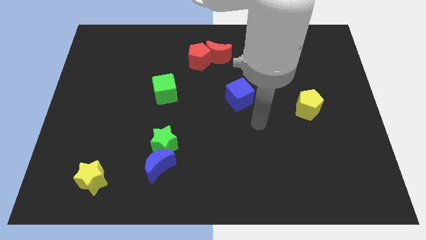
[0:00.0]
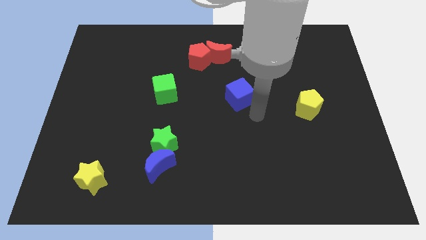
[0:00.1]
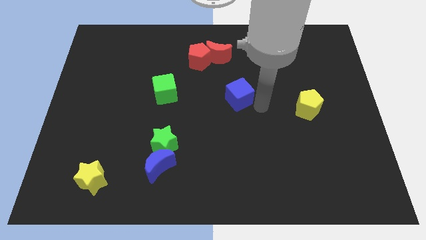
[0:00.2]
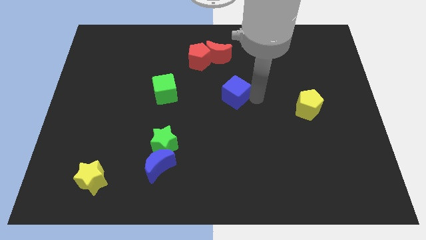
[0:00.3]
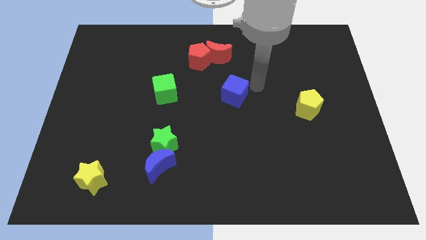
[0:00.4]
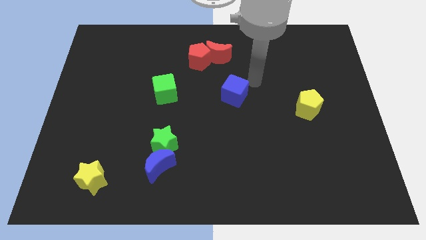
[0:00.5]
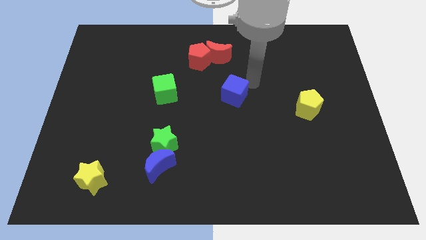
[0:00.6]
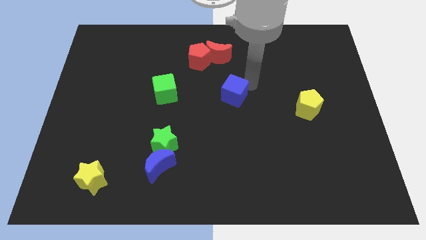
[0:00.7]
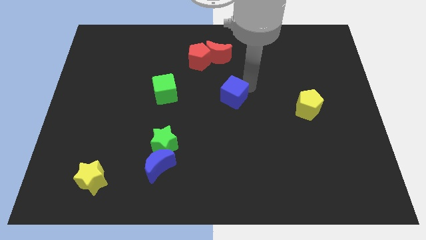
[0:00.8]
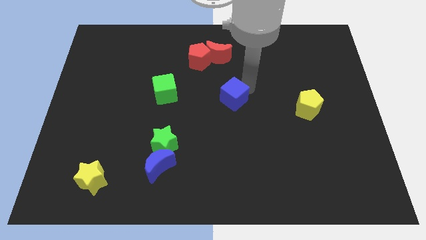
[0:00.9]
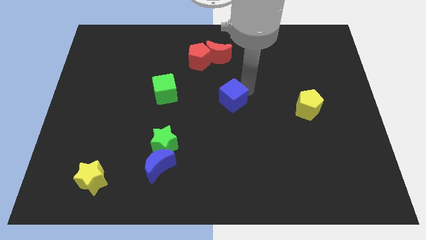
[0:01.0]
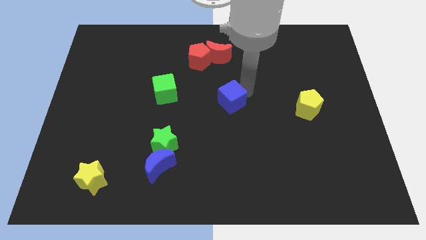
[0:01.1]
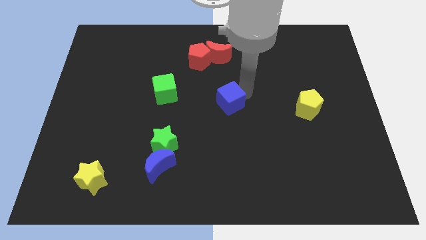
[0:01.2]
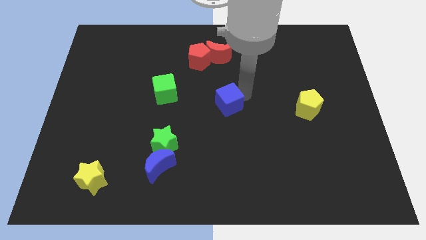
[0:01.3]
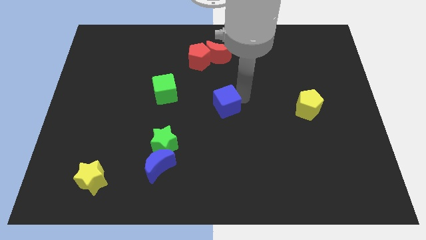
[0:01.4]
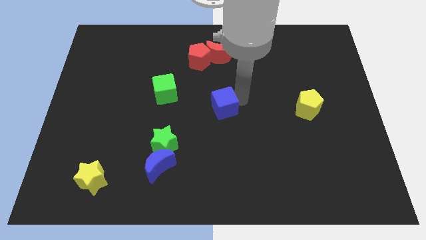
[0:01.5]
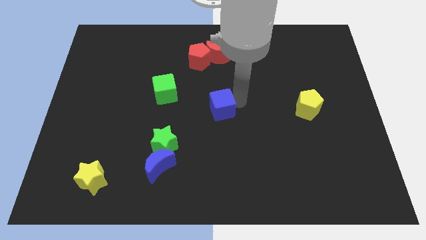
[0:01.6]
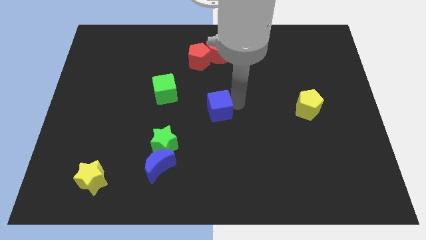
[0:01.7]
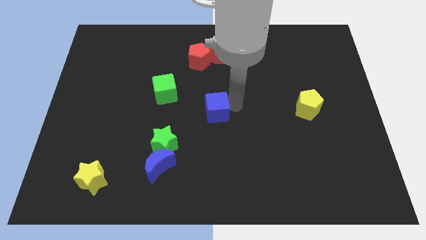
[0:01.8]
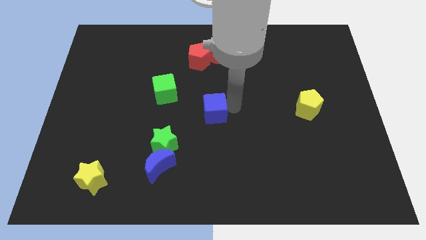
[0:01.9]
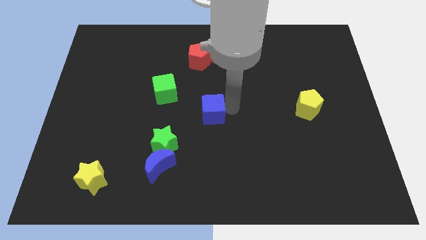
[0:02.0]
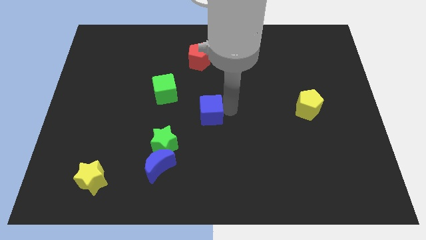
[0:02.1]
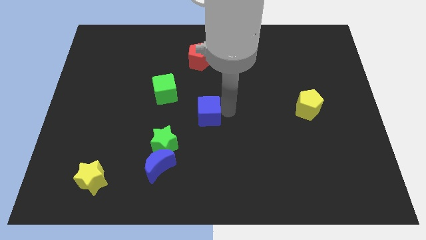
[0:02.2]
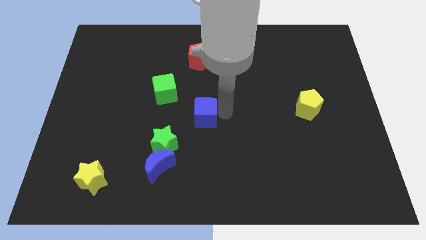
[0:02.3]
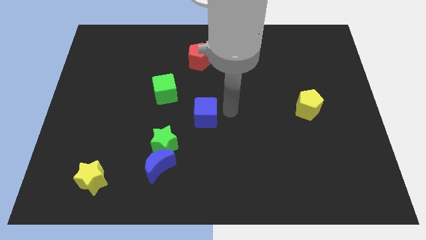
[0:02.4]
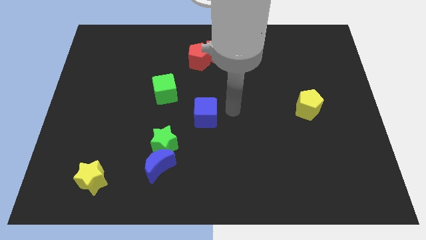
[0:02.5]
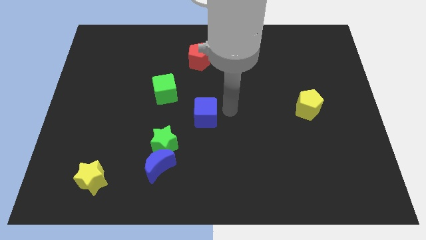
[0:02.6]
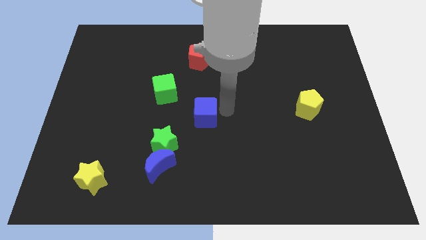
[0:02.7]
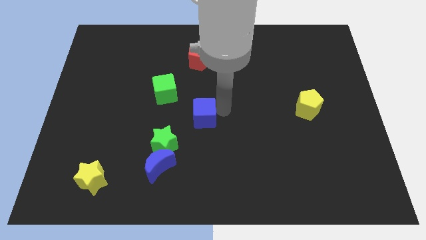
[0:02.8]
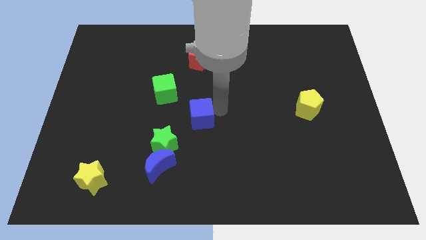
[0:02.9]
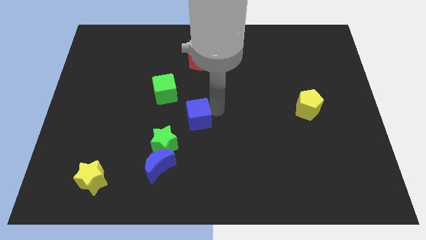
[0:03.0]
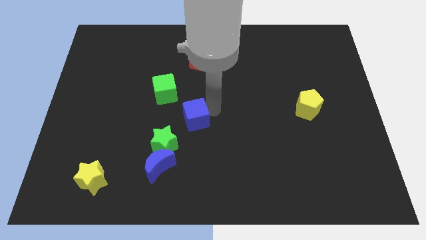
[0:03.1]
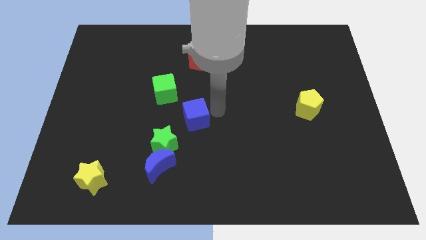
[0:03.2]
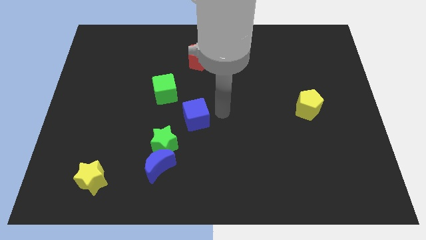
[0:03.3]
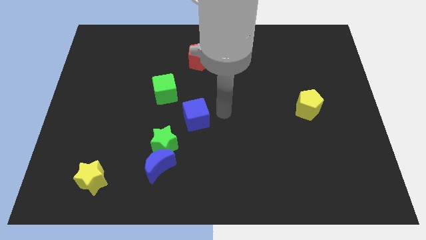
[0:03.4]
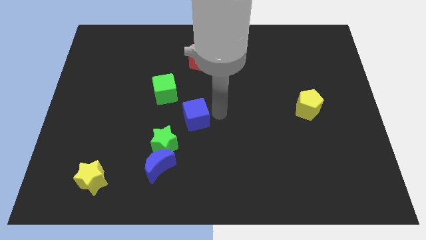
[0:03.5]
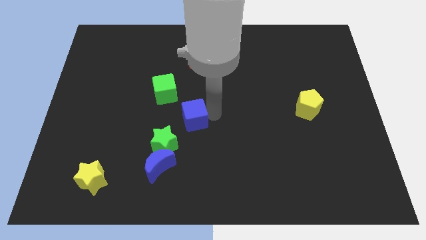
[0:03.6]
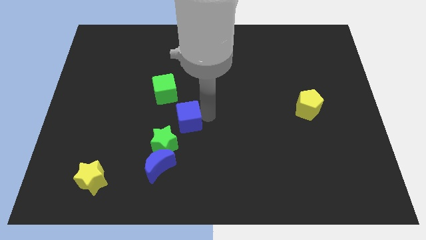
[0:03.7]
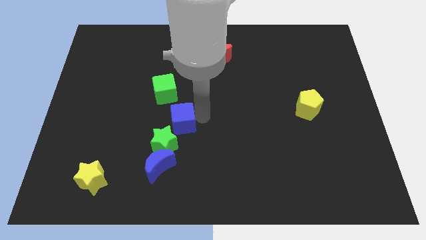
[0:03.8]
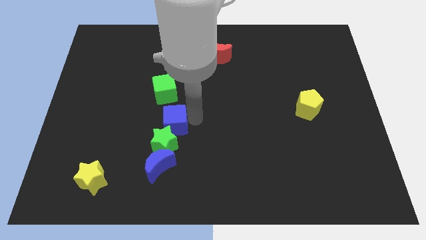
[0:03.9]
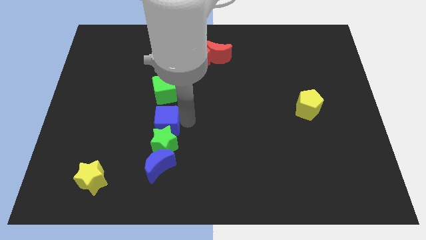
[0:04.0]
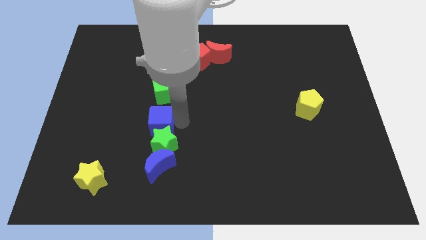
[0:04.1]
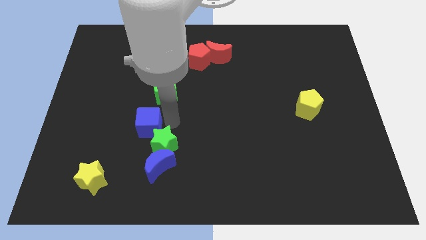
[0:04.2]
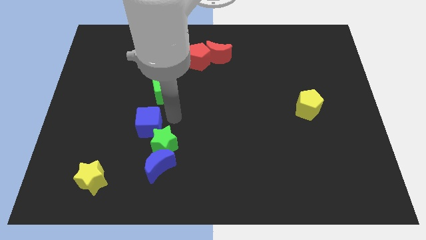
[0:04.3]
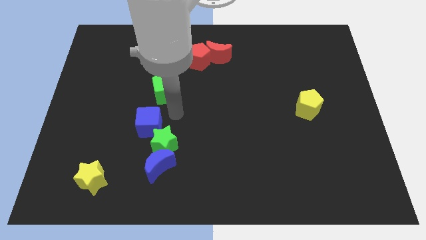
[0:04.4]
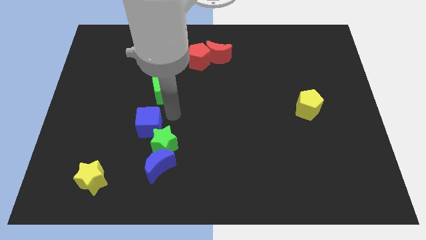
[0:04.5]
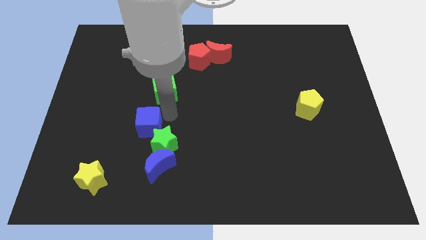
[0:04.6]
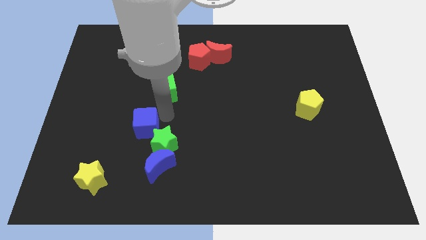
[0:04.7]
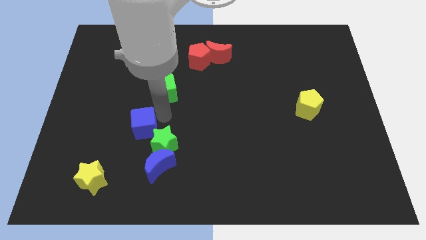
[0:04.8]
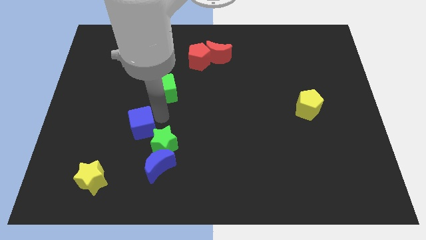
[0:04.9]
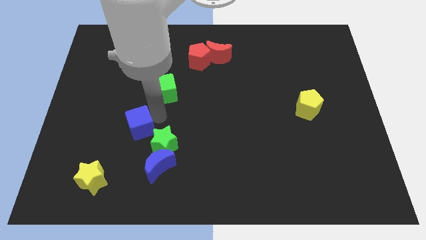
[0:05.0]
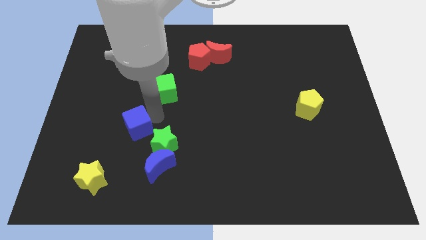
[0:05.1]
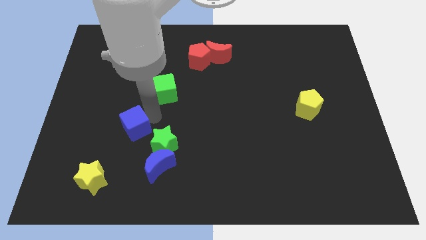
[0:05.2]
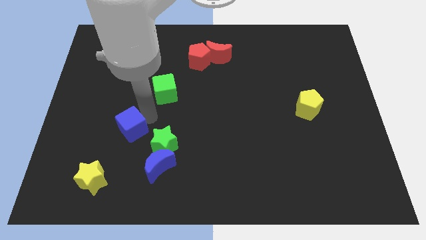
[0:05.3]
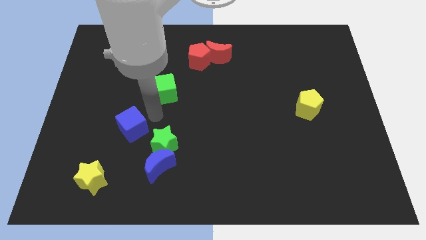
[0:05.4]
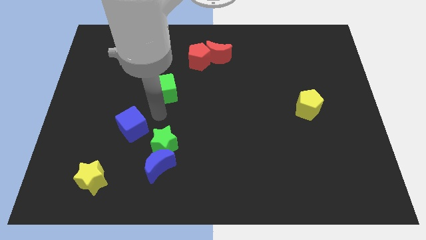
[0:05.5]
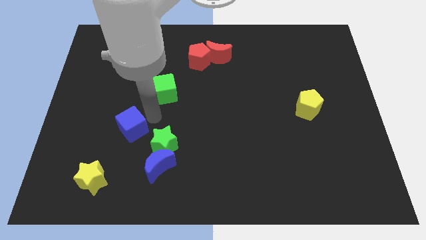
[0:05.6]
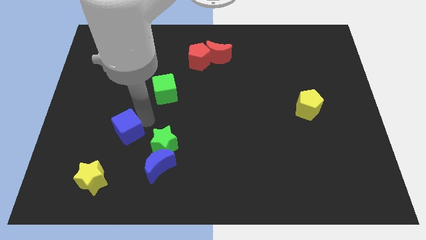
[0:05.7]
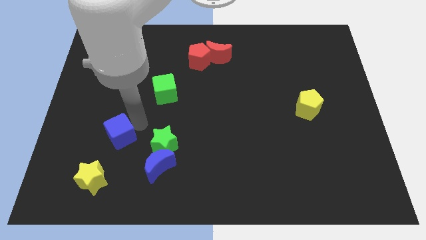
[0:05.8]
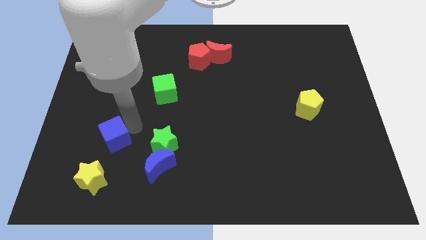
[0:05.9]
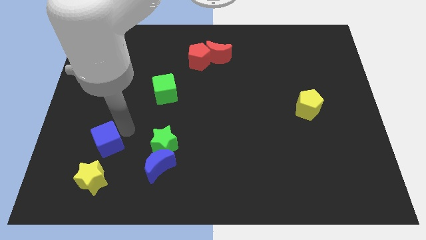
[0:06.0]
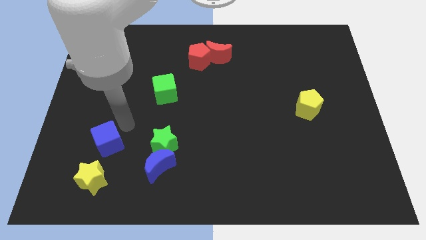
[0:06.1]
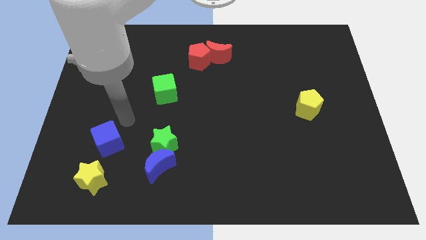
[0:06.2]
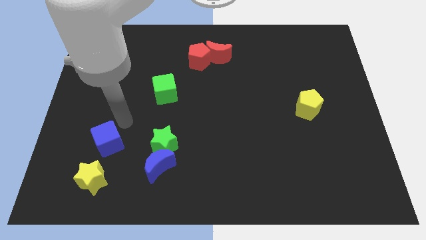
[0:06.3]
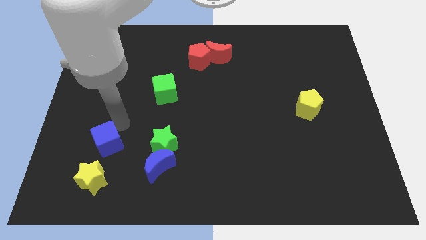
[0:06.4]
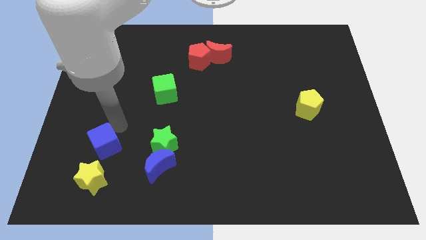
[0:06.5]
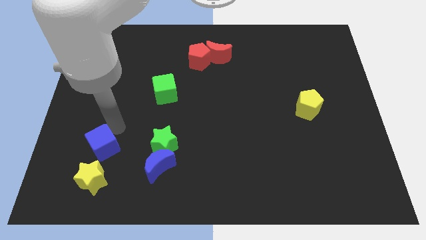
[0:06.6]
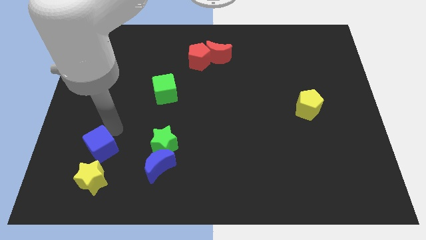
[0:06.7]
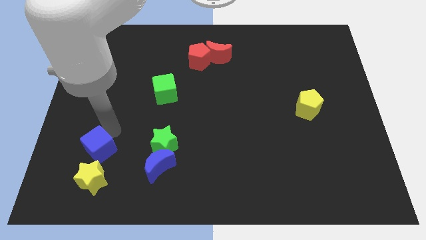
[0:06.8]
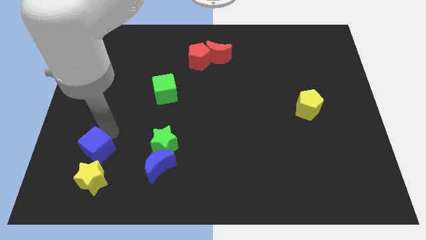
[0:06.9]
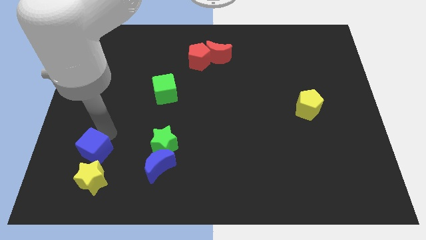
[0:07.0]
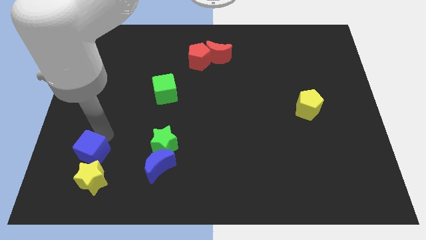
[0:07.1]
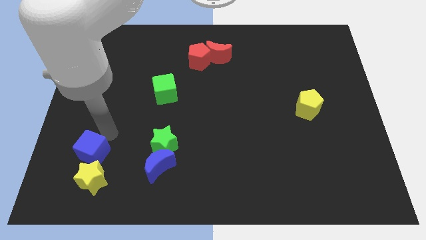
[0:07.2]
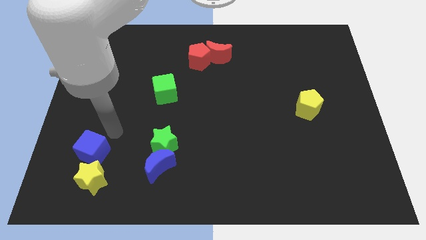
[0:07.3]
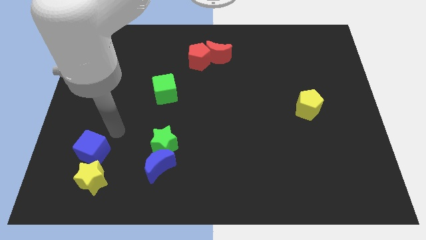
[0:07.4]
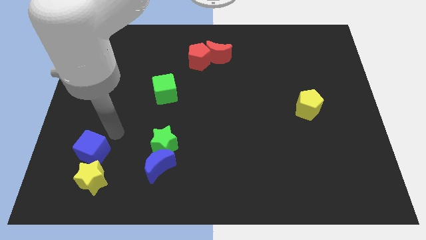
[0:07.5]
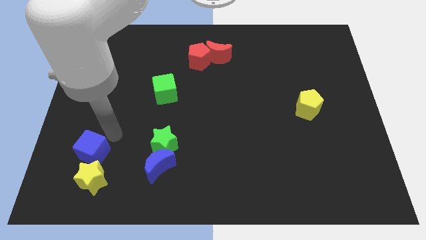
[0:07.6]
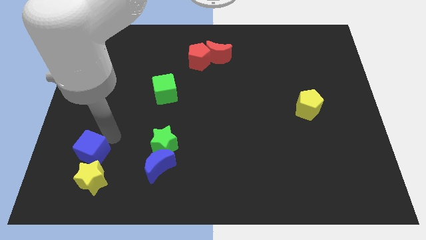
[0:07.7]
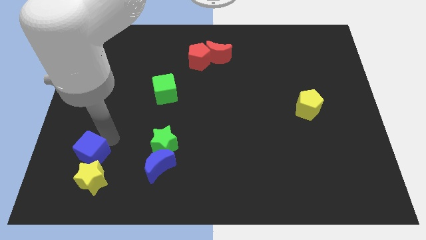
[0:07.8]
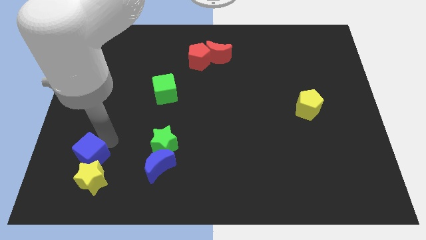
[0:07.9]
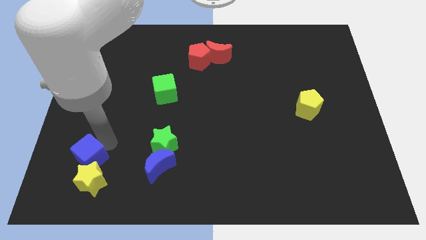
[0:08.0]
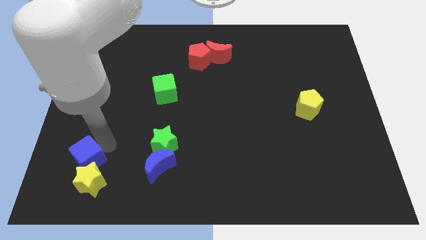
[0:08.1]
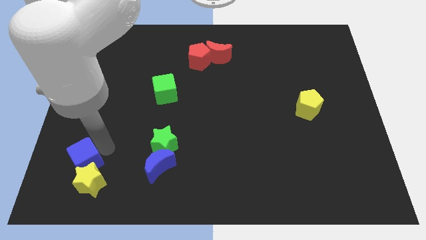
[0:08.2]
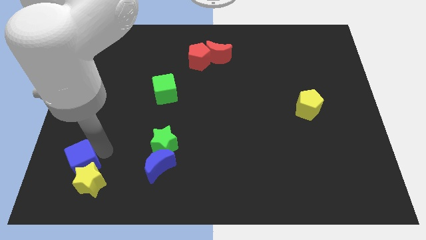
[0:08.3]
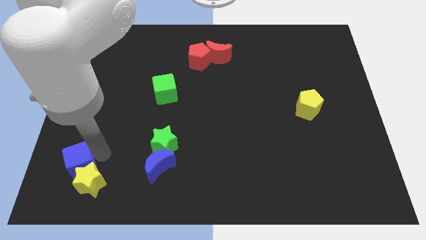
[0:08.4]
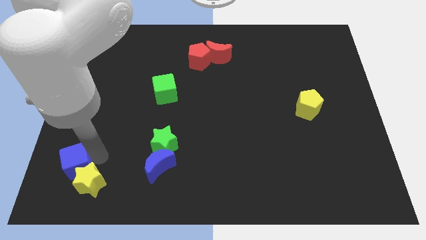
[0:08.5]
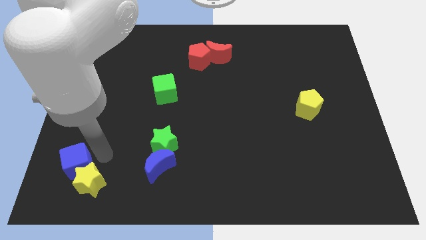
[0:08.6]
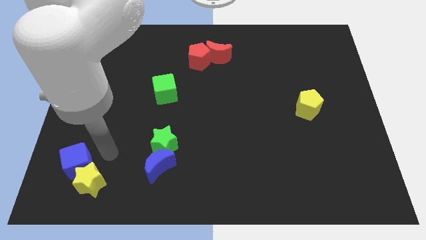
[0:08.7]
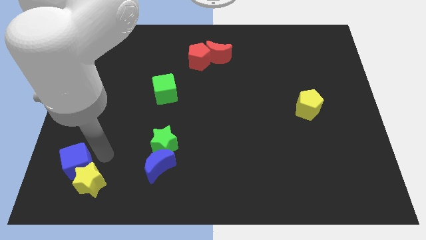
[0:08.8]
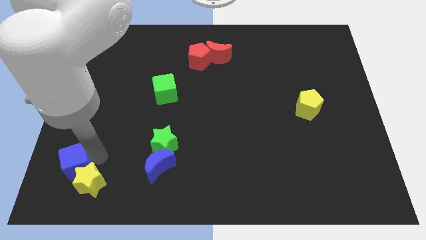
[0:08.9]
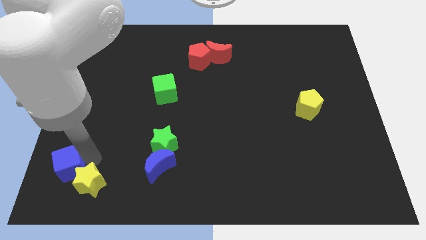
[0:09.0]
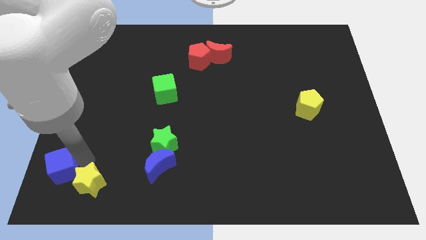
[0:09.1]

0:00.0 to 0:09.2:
put the blue cube to the bottom left of the board
